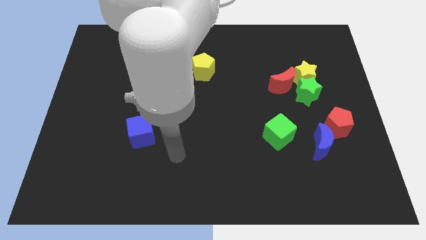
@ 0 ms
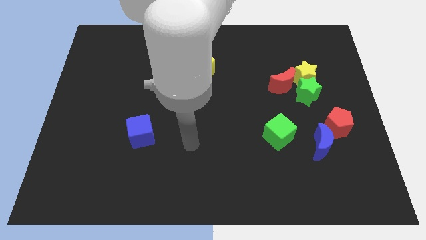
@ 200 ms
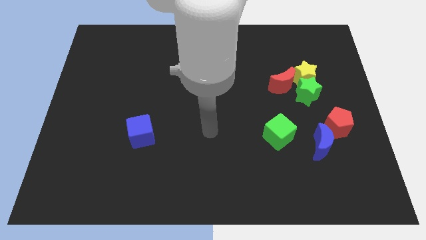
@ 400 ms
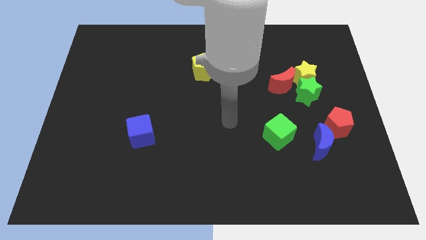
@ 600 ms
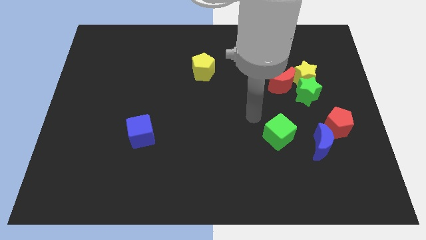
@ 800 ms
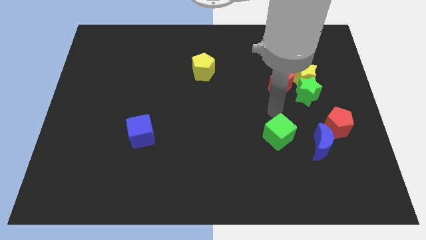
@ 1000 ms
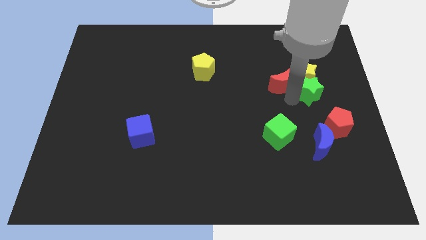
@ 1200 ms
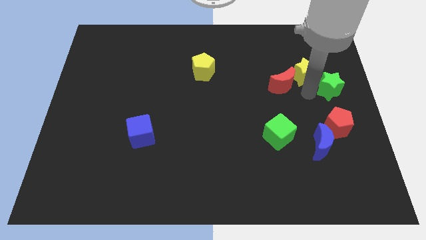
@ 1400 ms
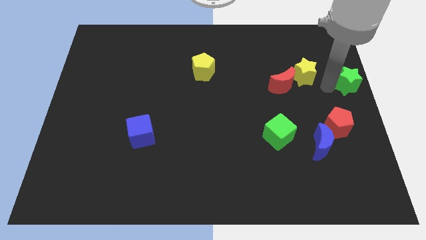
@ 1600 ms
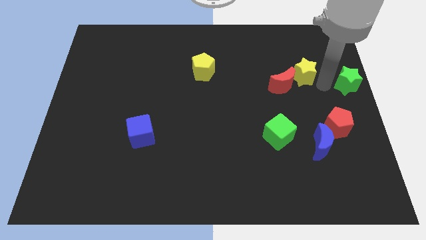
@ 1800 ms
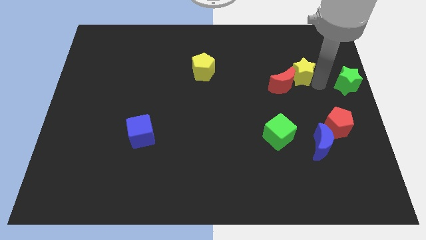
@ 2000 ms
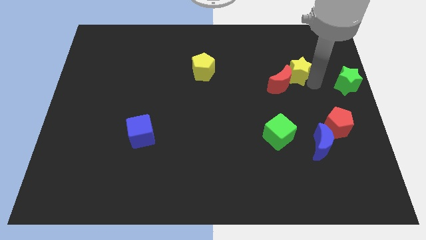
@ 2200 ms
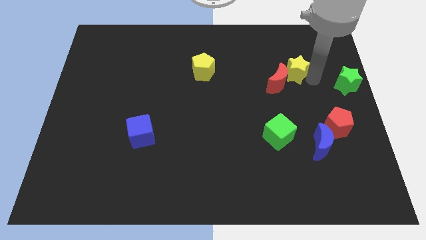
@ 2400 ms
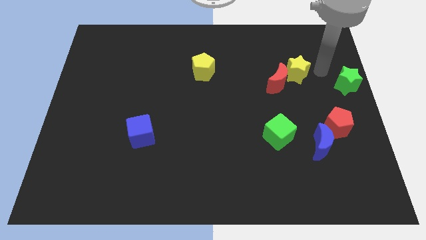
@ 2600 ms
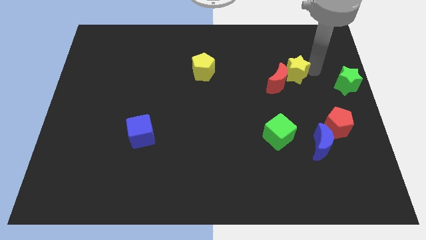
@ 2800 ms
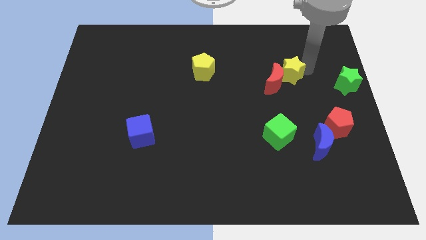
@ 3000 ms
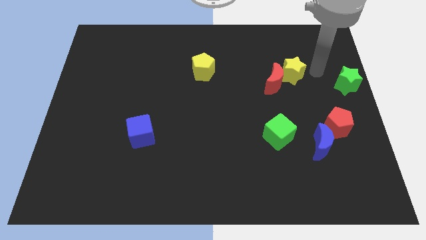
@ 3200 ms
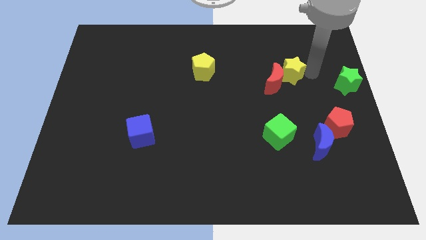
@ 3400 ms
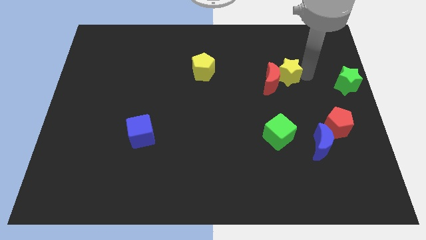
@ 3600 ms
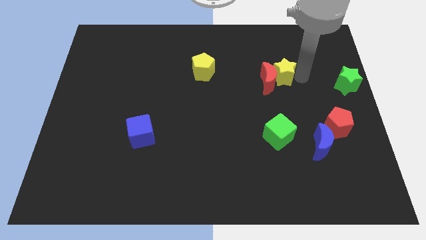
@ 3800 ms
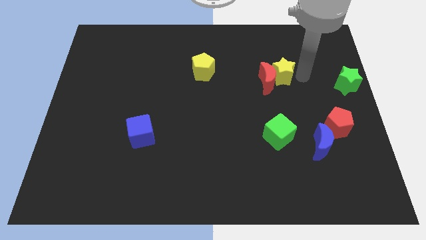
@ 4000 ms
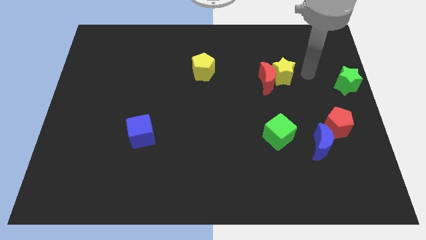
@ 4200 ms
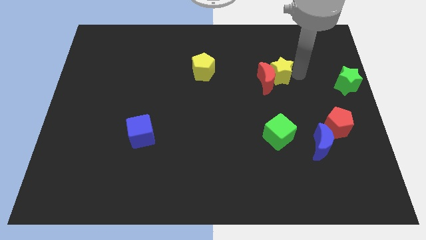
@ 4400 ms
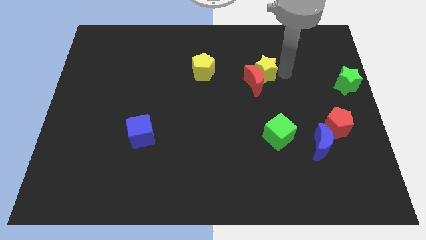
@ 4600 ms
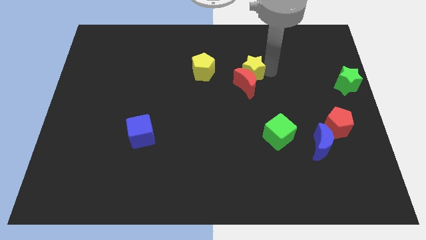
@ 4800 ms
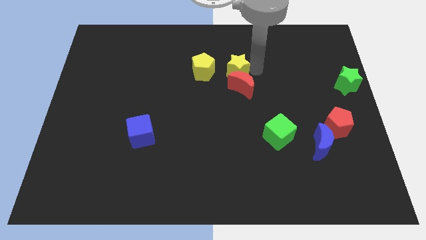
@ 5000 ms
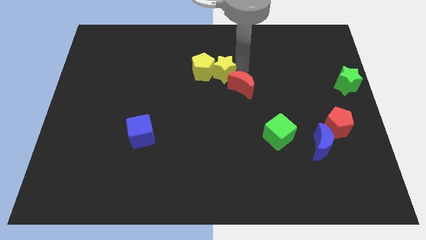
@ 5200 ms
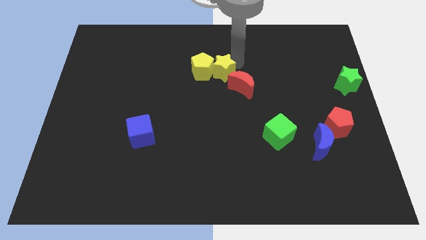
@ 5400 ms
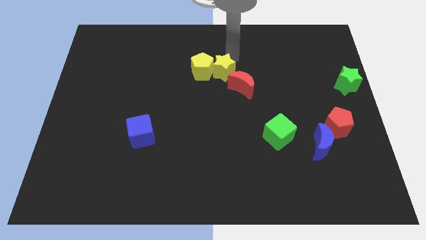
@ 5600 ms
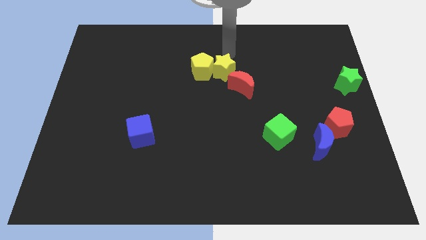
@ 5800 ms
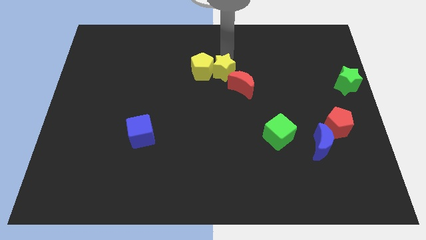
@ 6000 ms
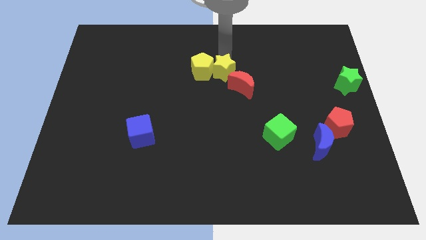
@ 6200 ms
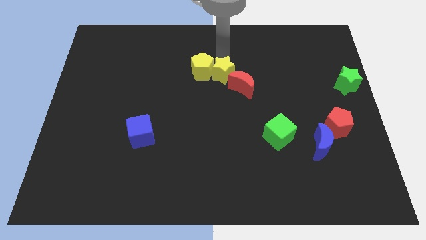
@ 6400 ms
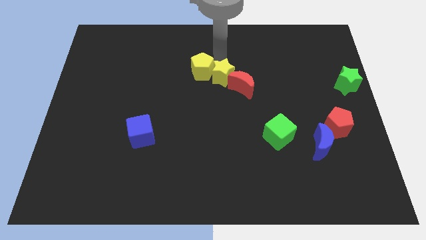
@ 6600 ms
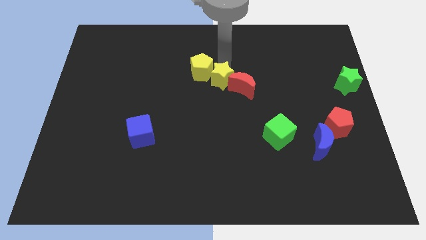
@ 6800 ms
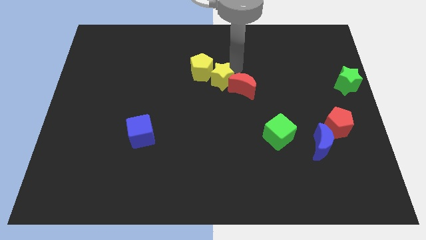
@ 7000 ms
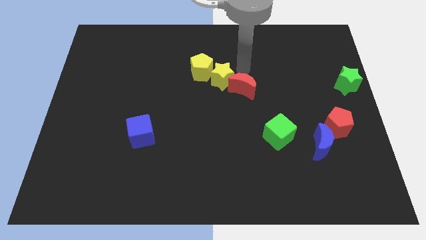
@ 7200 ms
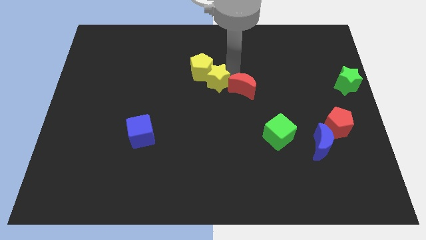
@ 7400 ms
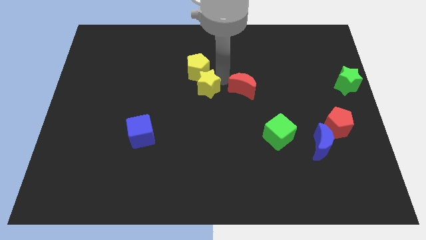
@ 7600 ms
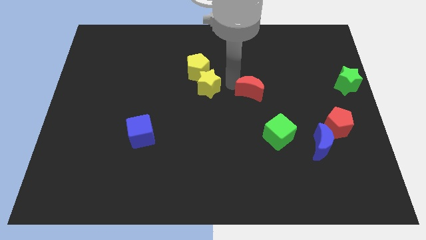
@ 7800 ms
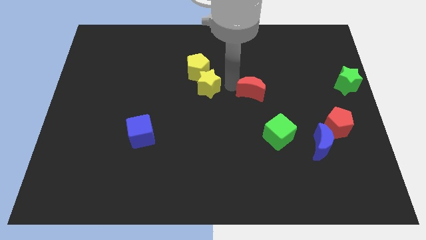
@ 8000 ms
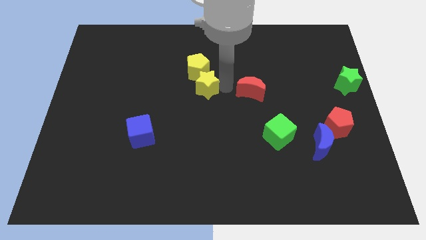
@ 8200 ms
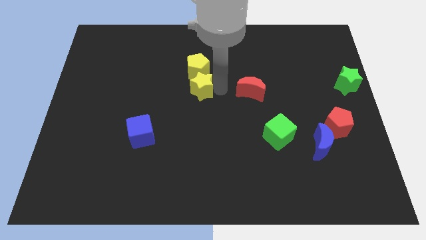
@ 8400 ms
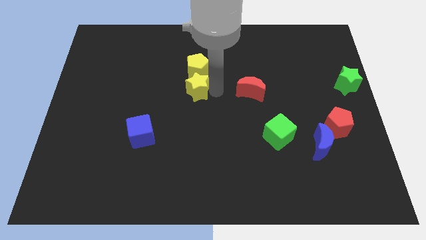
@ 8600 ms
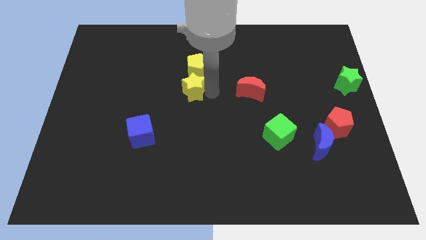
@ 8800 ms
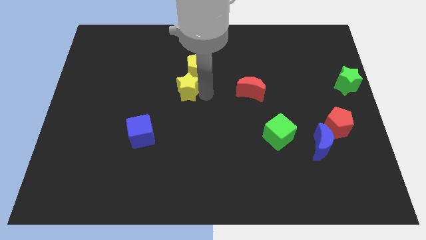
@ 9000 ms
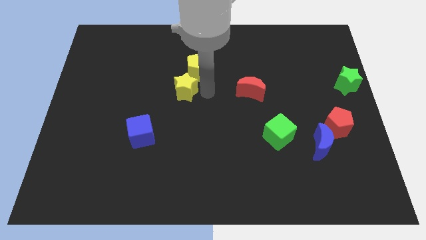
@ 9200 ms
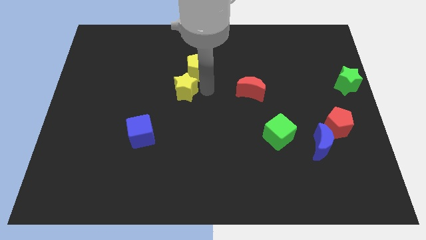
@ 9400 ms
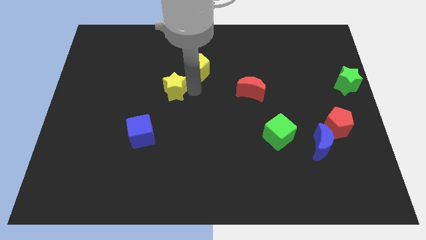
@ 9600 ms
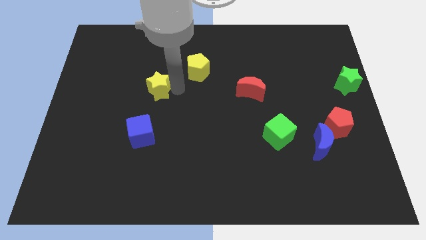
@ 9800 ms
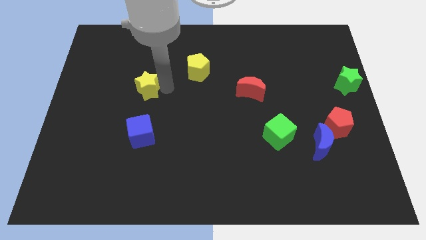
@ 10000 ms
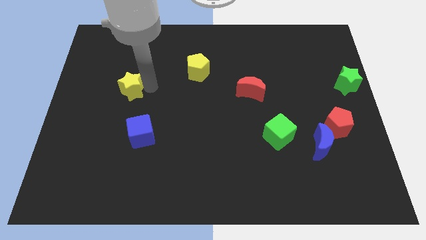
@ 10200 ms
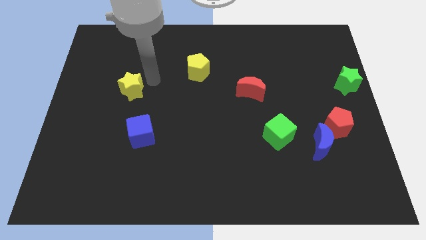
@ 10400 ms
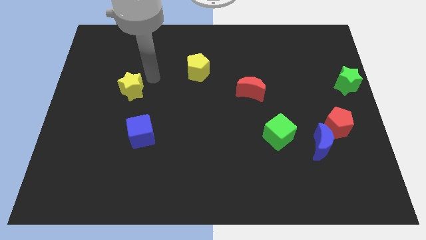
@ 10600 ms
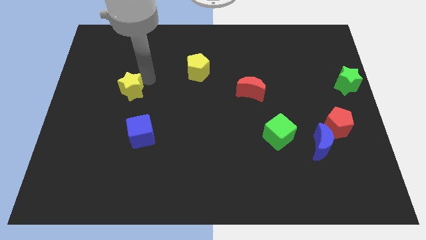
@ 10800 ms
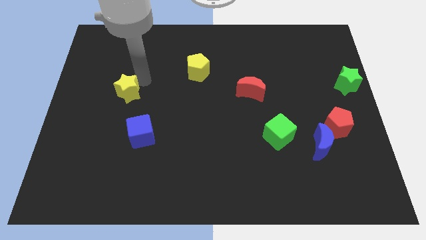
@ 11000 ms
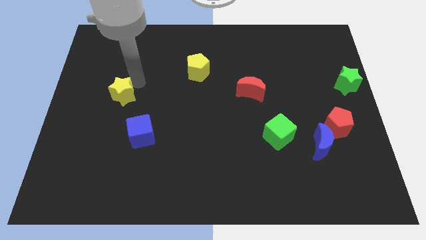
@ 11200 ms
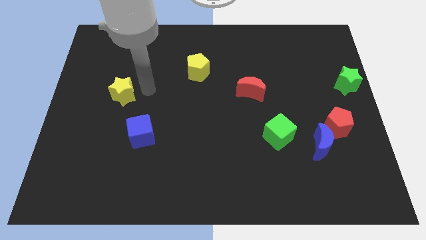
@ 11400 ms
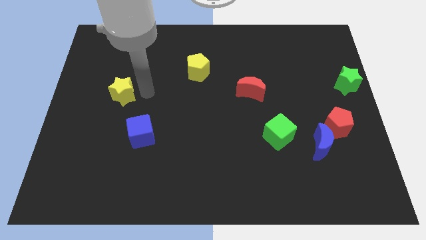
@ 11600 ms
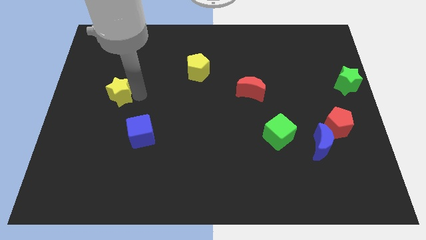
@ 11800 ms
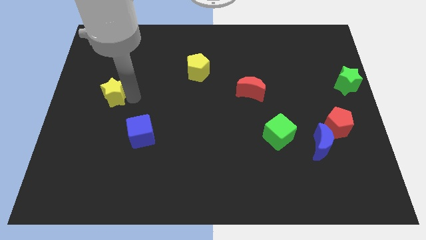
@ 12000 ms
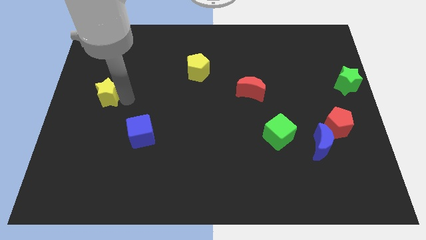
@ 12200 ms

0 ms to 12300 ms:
push the yellow star to the left side
